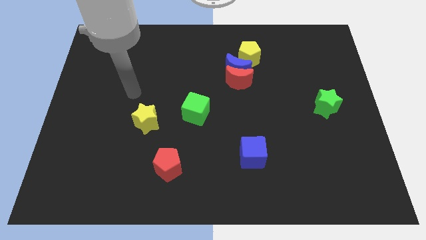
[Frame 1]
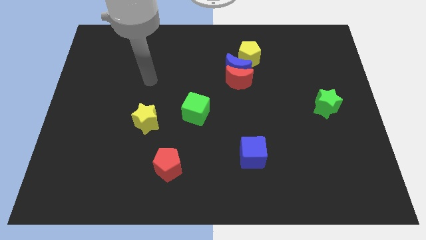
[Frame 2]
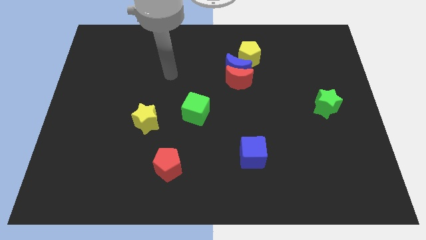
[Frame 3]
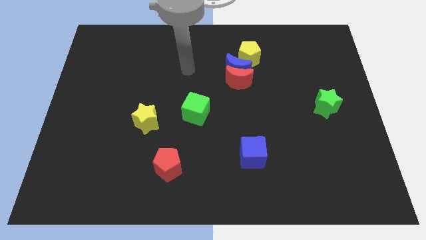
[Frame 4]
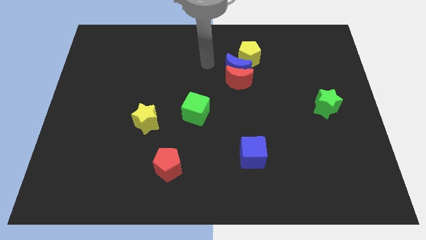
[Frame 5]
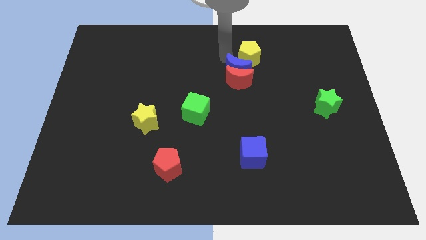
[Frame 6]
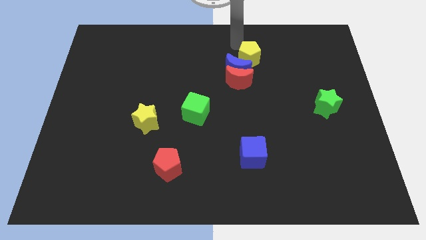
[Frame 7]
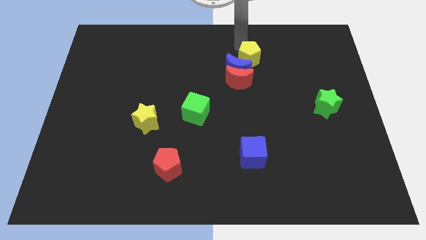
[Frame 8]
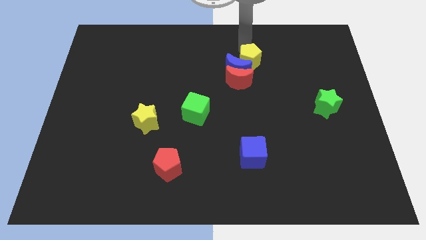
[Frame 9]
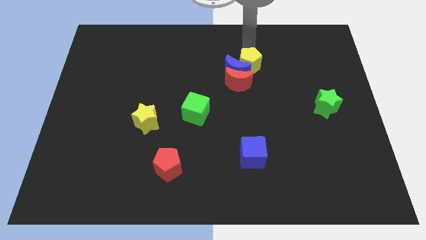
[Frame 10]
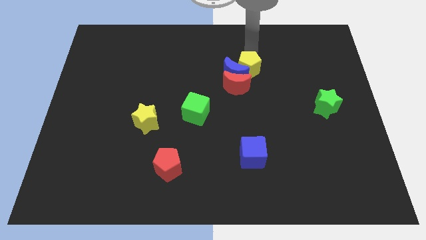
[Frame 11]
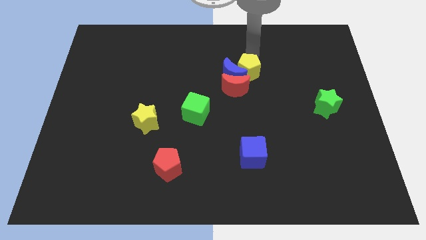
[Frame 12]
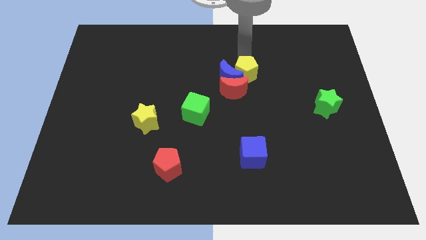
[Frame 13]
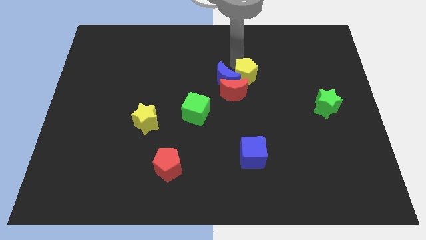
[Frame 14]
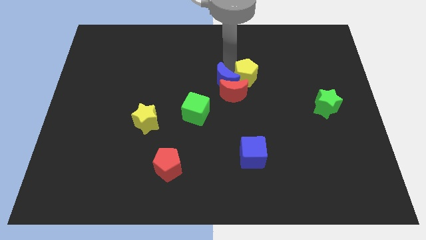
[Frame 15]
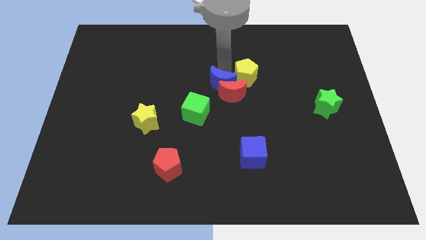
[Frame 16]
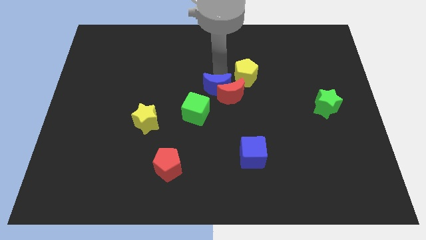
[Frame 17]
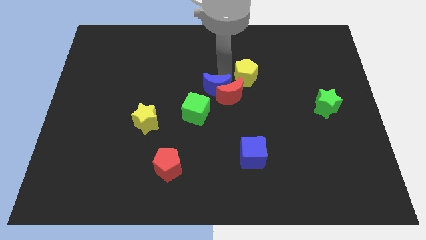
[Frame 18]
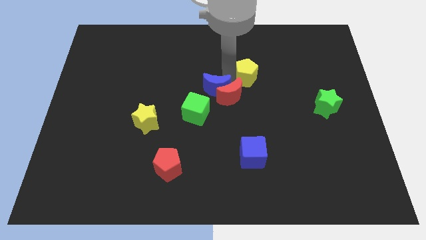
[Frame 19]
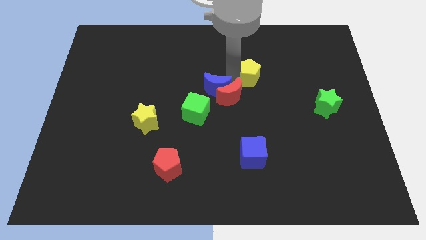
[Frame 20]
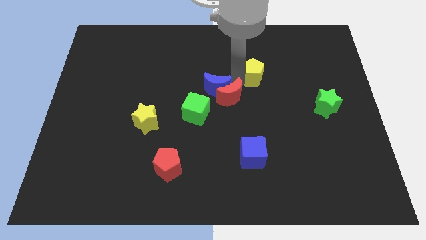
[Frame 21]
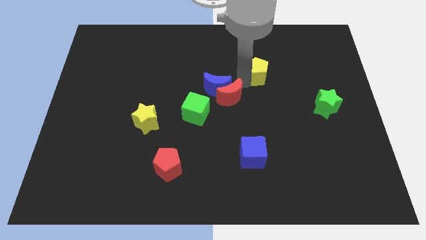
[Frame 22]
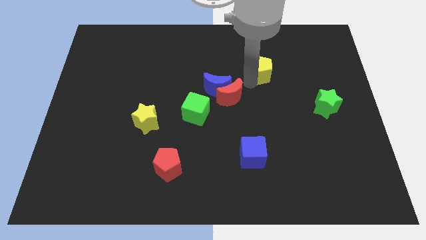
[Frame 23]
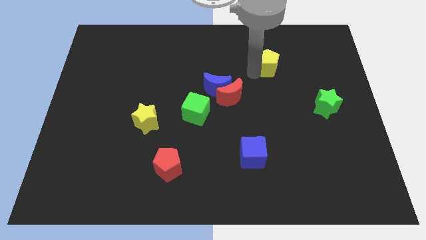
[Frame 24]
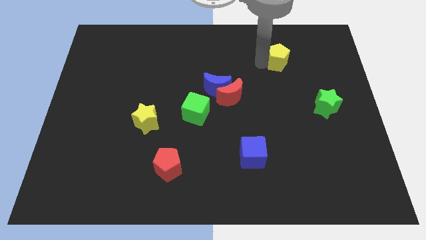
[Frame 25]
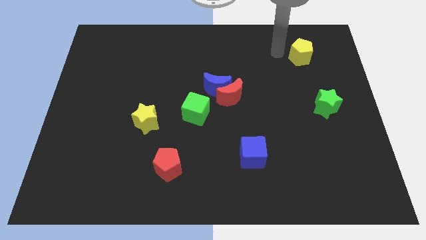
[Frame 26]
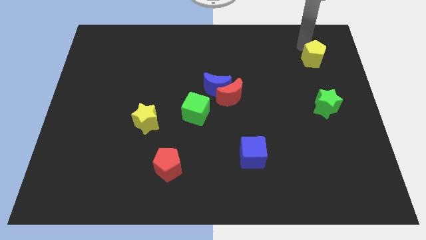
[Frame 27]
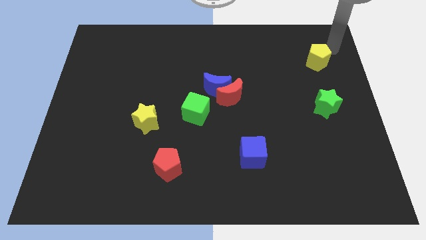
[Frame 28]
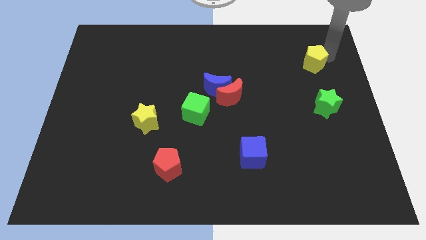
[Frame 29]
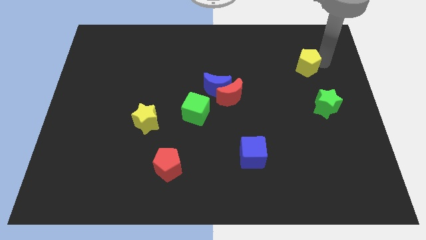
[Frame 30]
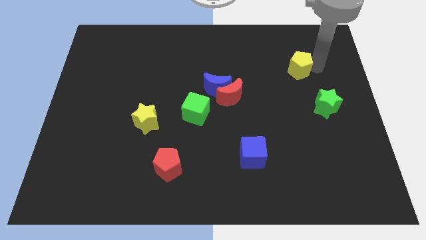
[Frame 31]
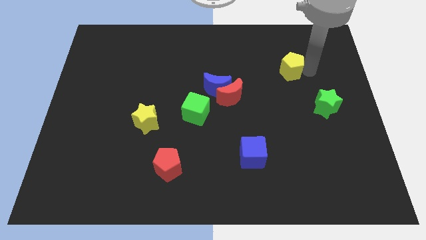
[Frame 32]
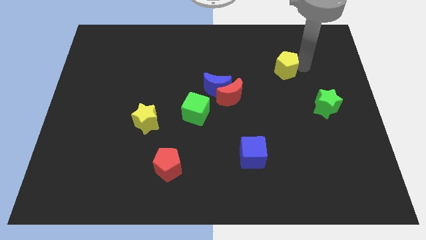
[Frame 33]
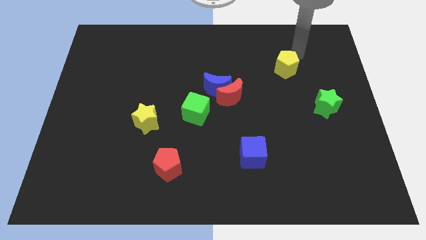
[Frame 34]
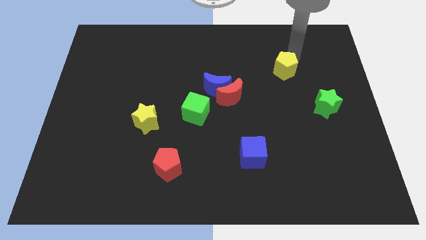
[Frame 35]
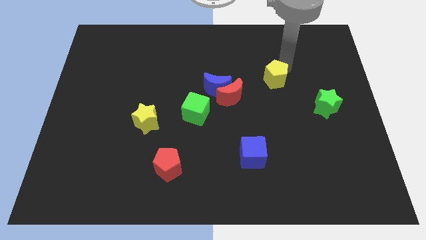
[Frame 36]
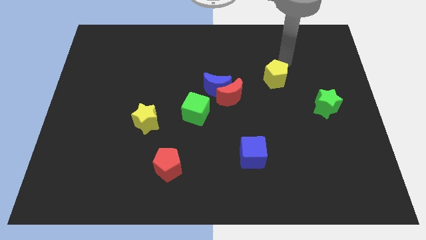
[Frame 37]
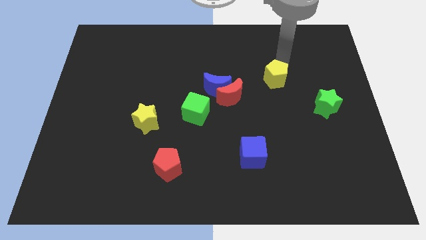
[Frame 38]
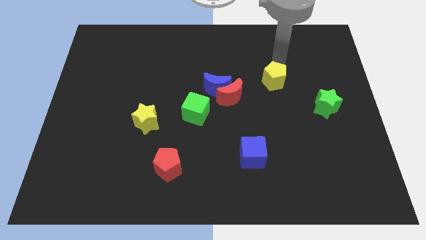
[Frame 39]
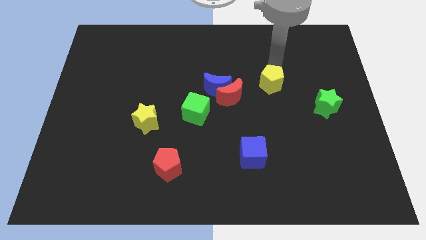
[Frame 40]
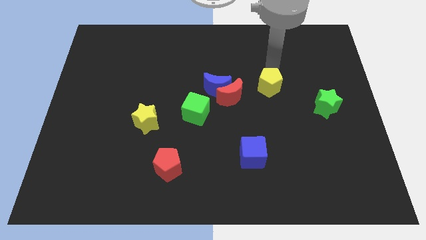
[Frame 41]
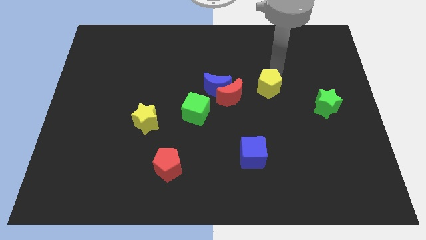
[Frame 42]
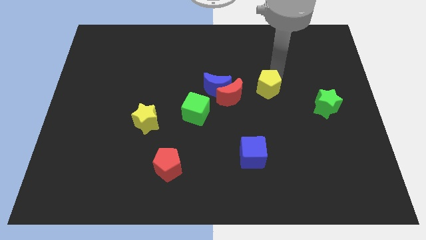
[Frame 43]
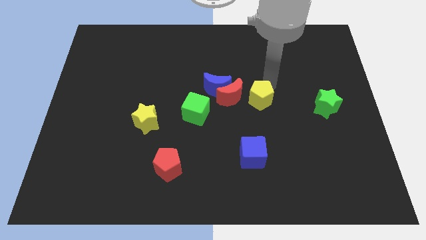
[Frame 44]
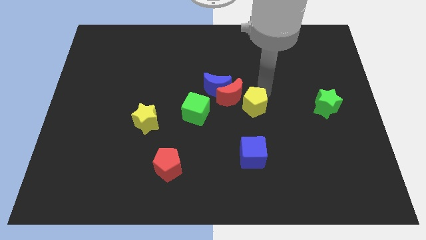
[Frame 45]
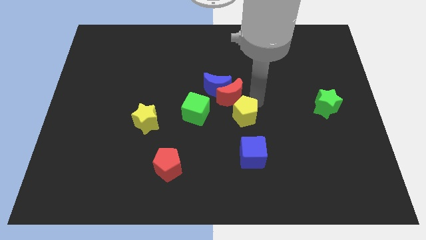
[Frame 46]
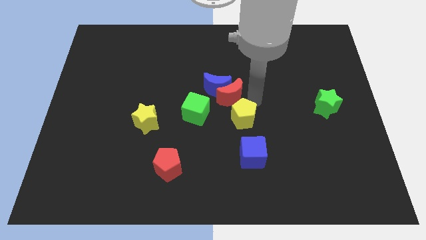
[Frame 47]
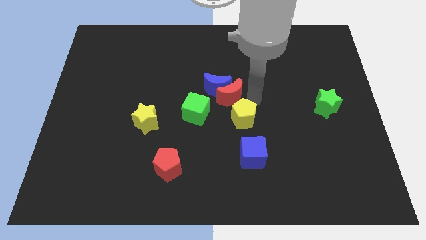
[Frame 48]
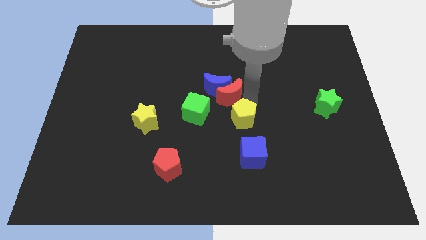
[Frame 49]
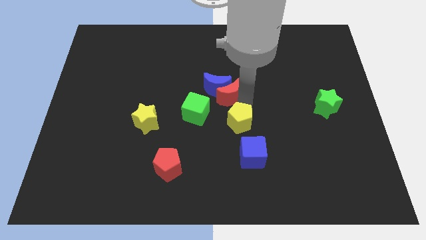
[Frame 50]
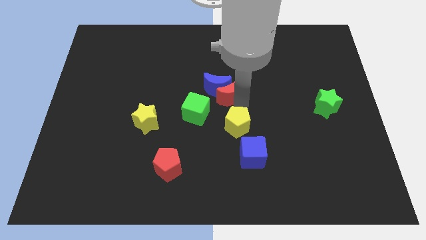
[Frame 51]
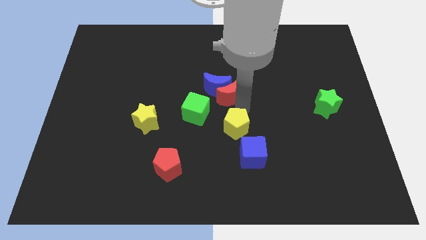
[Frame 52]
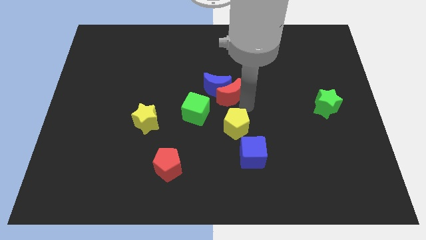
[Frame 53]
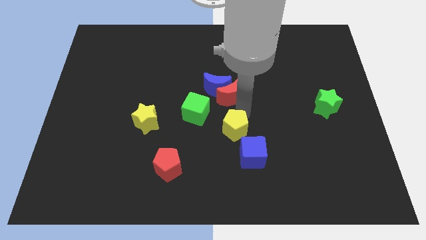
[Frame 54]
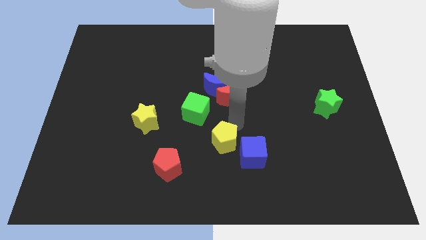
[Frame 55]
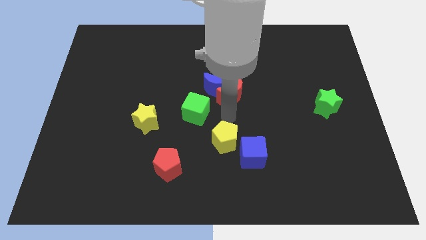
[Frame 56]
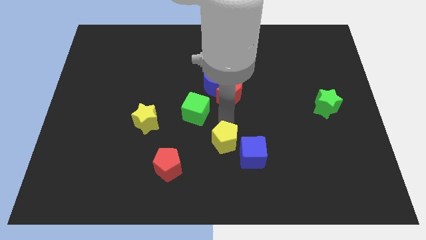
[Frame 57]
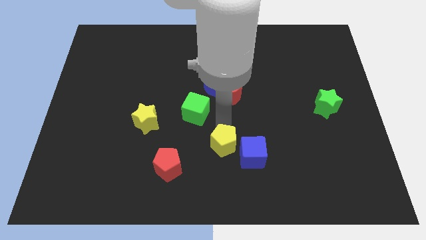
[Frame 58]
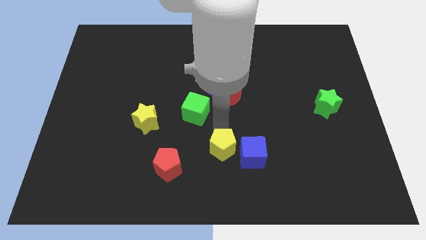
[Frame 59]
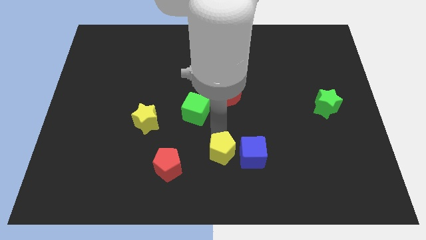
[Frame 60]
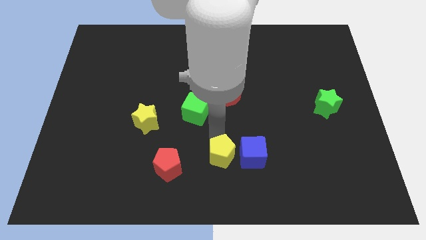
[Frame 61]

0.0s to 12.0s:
push the yellow pentagon to the bottom
